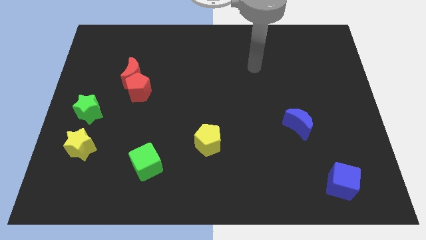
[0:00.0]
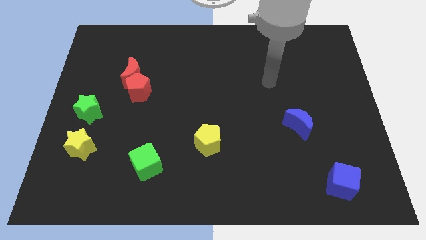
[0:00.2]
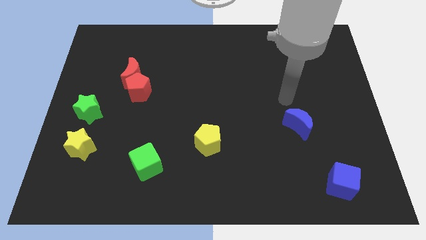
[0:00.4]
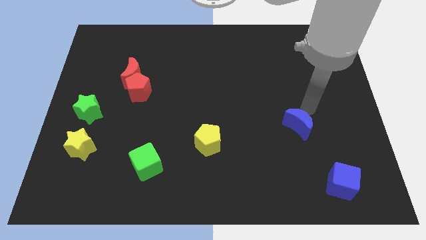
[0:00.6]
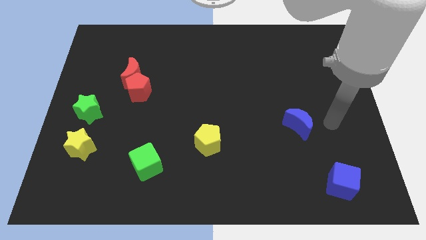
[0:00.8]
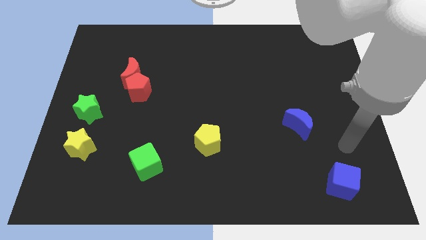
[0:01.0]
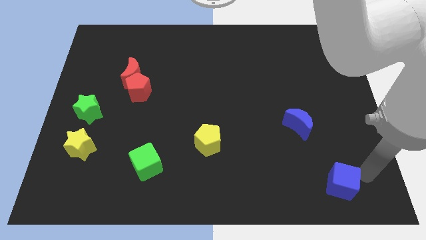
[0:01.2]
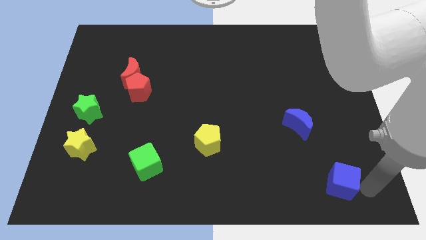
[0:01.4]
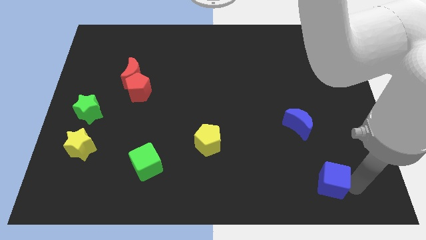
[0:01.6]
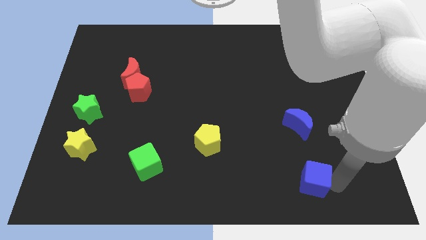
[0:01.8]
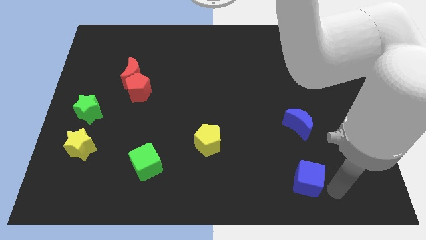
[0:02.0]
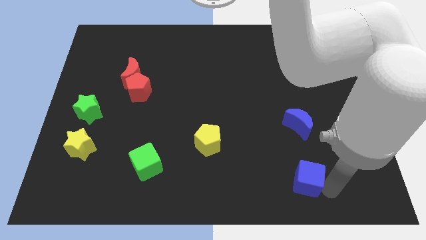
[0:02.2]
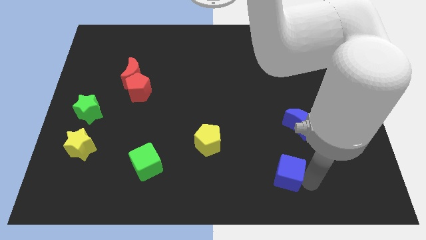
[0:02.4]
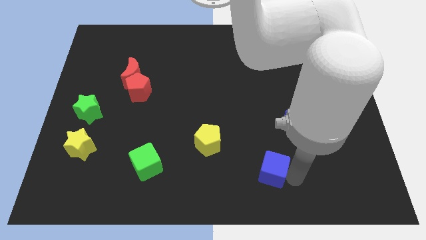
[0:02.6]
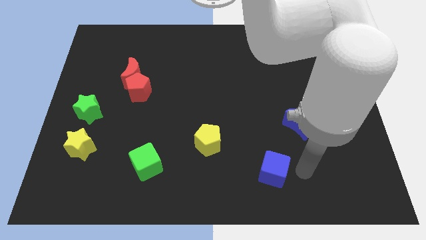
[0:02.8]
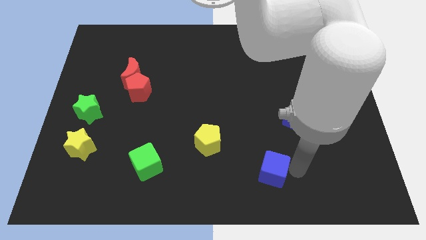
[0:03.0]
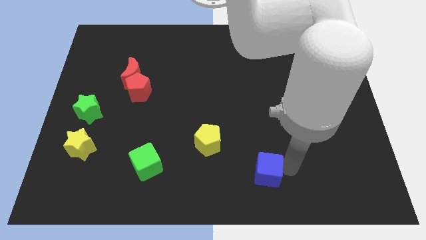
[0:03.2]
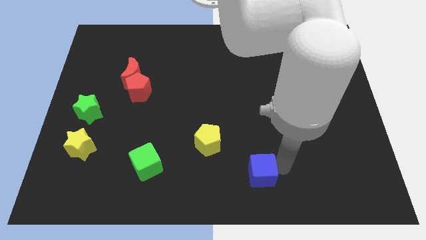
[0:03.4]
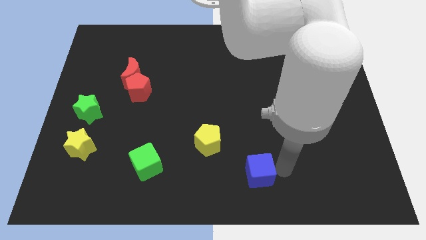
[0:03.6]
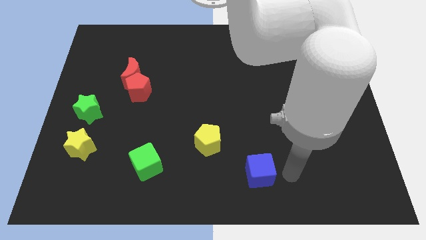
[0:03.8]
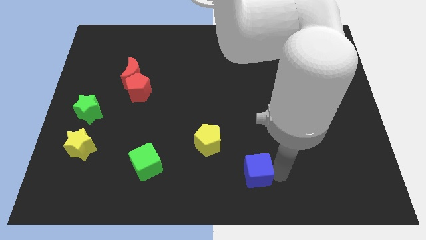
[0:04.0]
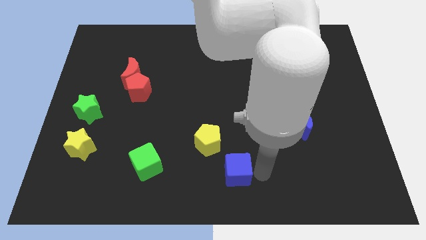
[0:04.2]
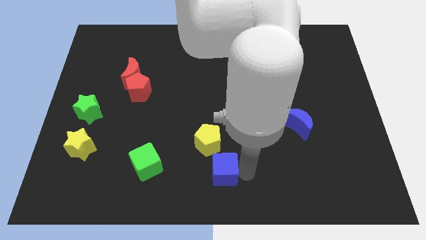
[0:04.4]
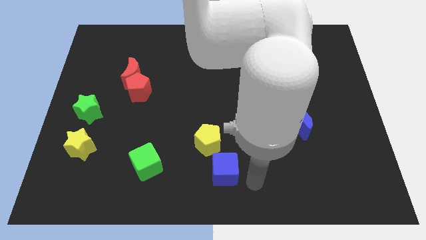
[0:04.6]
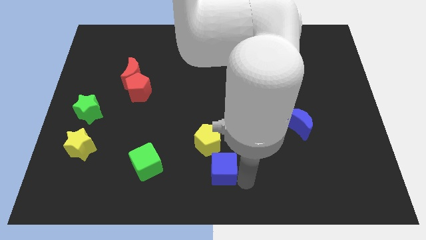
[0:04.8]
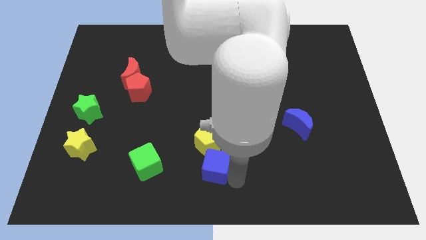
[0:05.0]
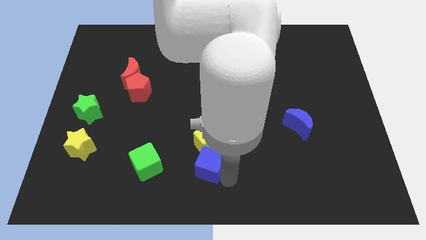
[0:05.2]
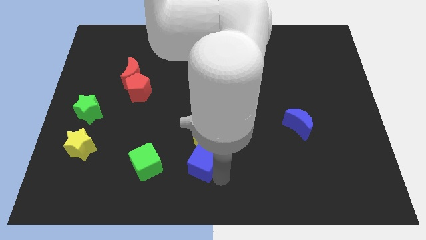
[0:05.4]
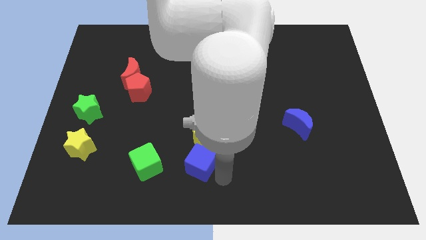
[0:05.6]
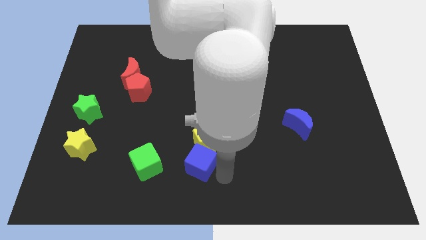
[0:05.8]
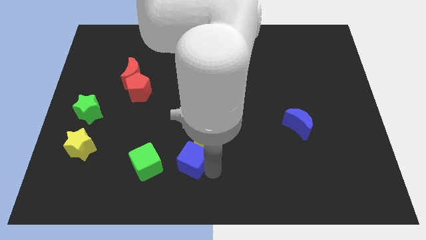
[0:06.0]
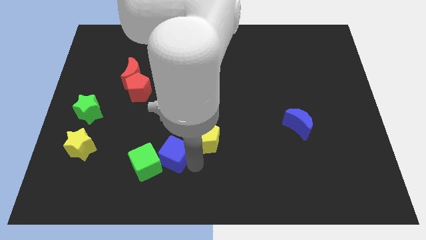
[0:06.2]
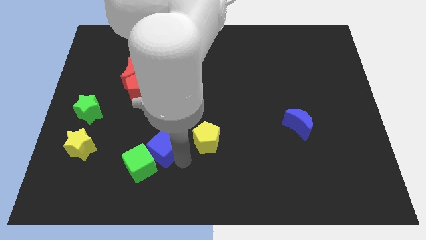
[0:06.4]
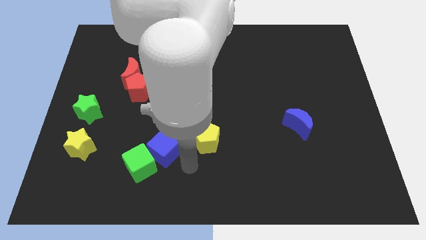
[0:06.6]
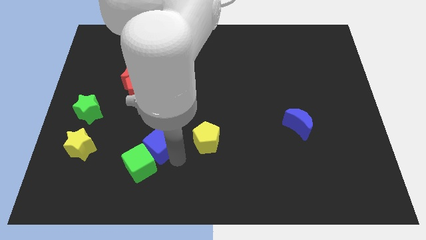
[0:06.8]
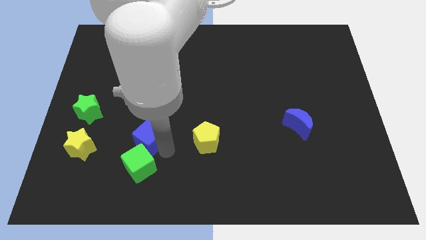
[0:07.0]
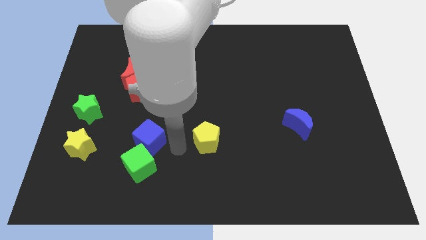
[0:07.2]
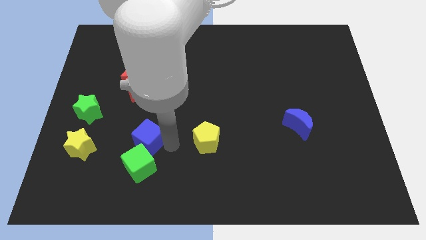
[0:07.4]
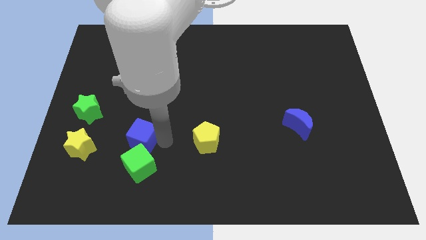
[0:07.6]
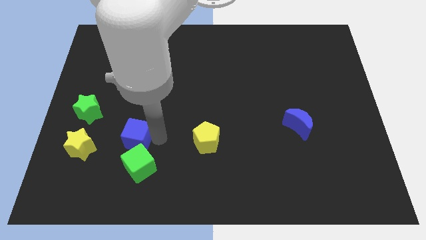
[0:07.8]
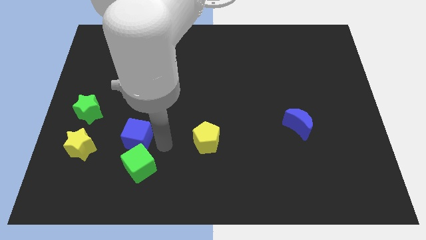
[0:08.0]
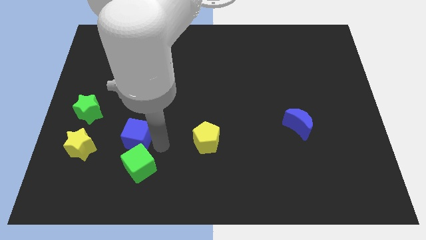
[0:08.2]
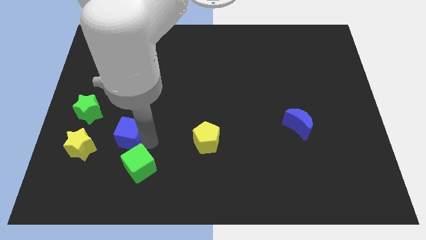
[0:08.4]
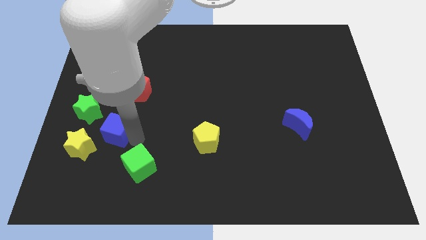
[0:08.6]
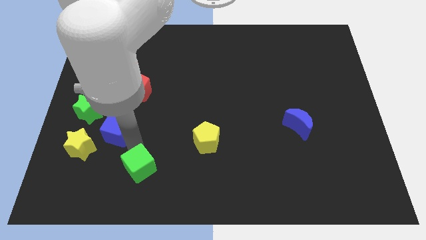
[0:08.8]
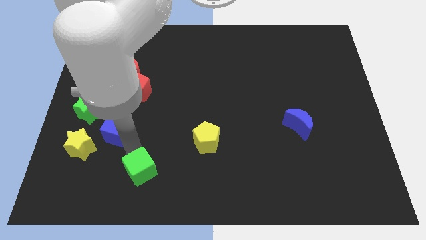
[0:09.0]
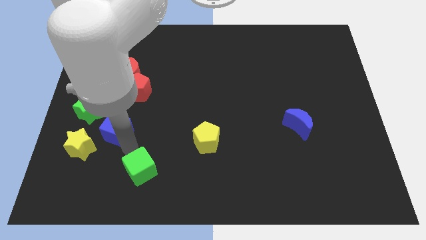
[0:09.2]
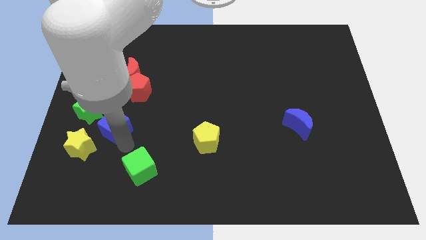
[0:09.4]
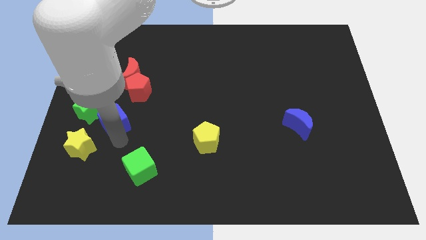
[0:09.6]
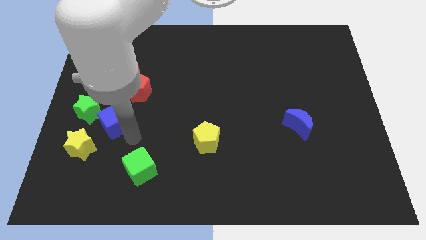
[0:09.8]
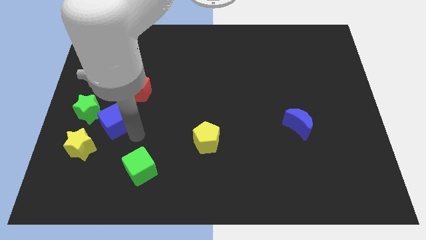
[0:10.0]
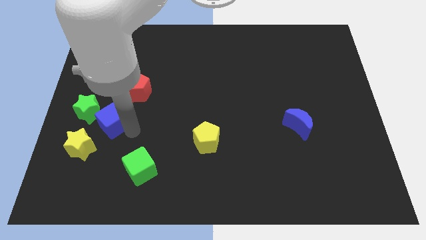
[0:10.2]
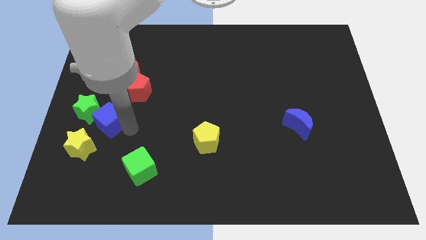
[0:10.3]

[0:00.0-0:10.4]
move the blue cube towards the green star
